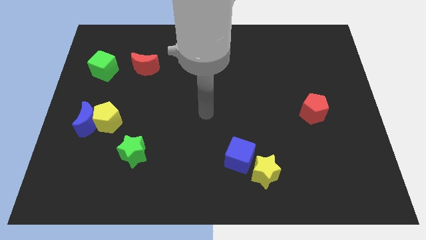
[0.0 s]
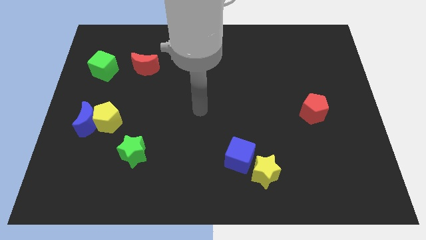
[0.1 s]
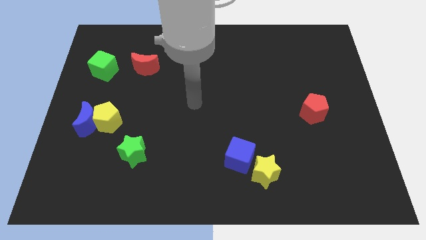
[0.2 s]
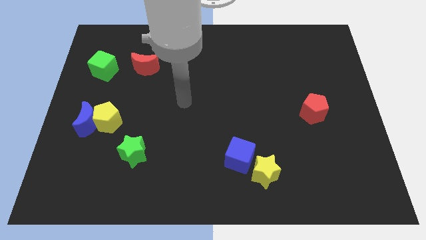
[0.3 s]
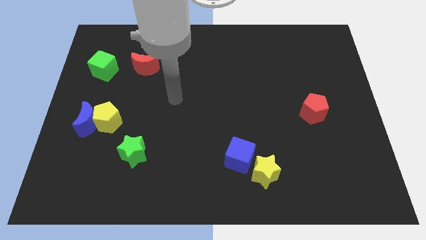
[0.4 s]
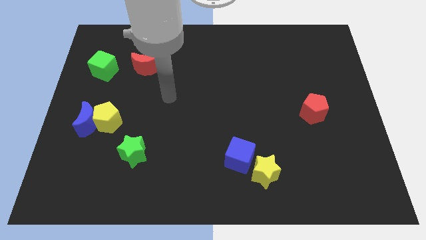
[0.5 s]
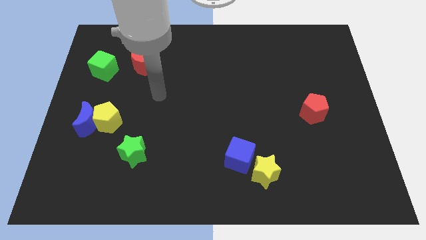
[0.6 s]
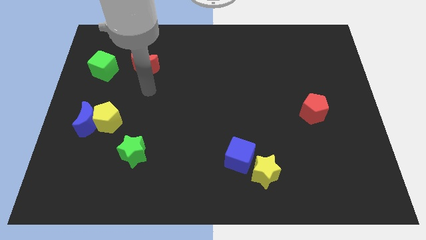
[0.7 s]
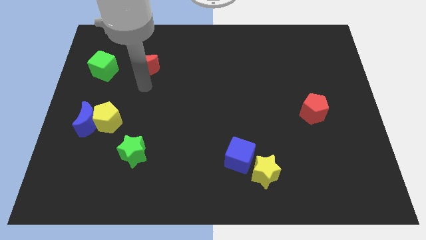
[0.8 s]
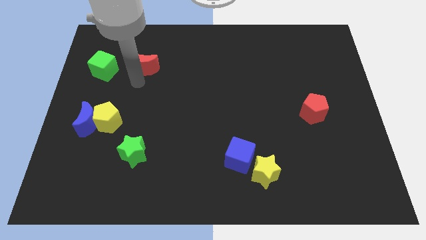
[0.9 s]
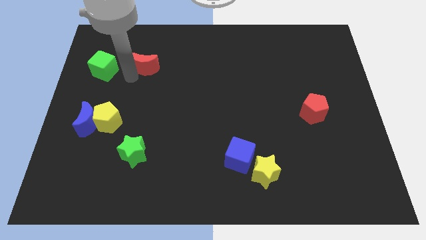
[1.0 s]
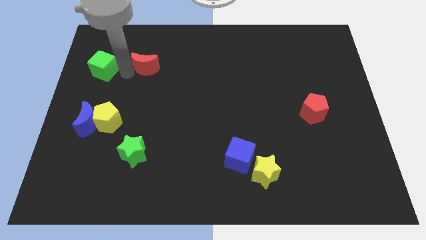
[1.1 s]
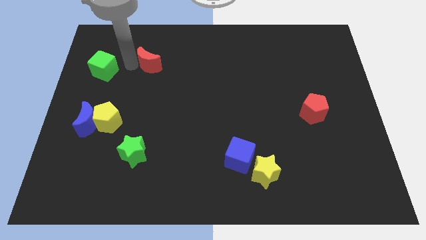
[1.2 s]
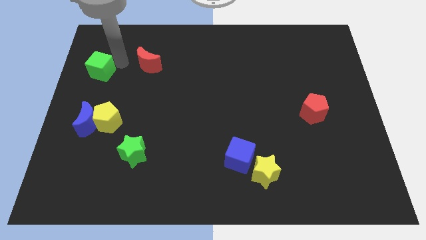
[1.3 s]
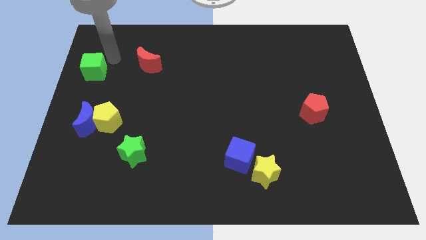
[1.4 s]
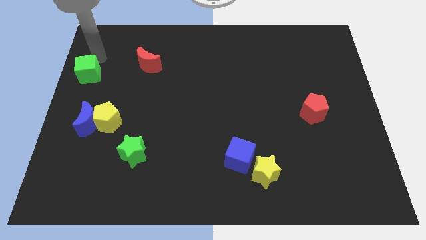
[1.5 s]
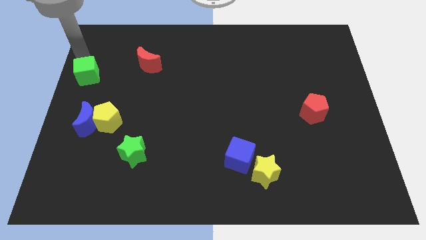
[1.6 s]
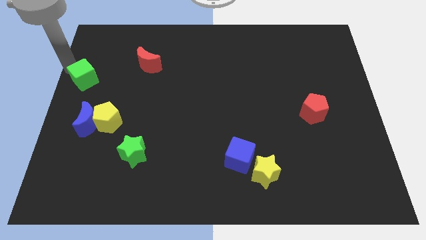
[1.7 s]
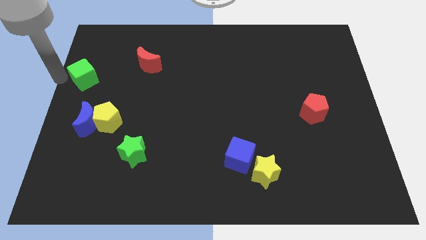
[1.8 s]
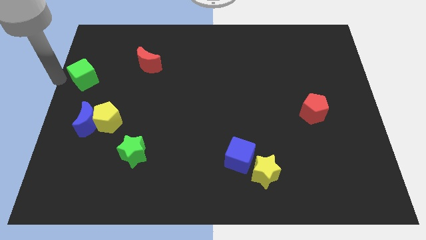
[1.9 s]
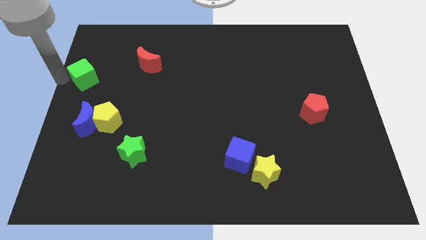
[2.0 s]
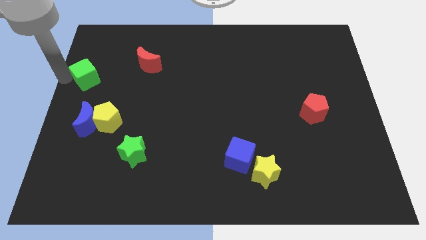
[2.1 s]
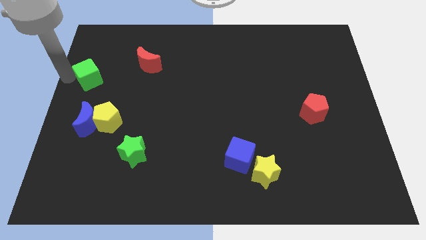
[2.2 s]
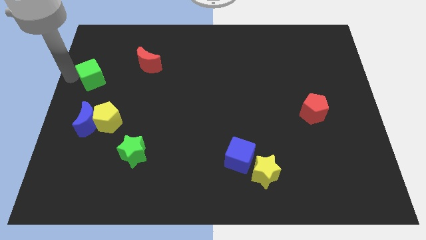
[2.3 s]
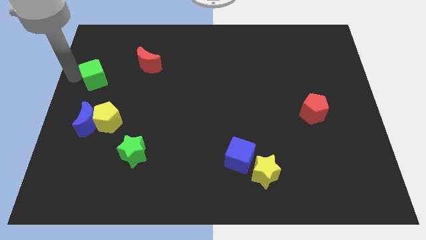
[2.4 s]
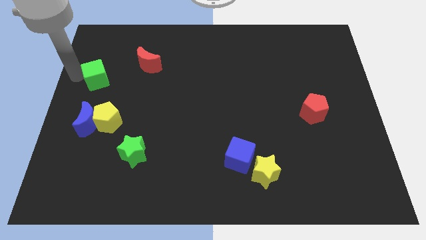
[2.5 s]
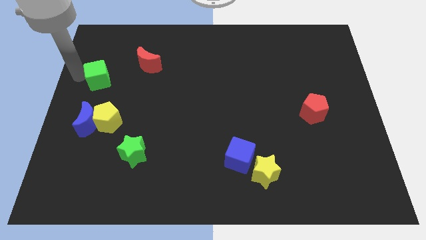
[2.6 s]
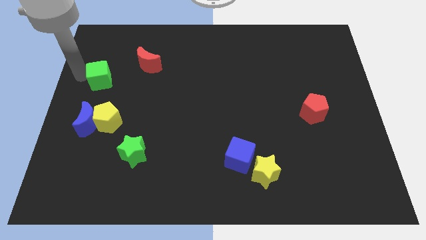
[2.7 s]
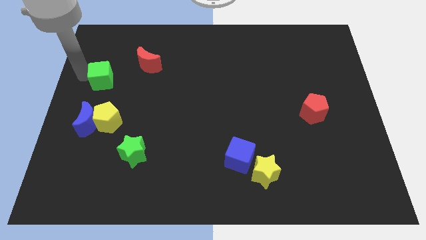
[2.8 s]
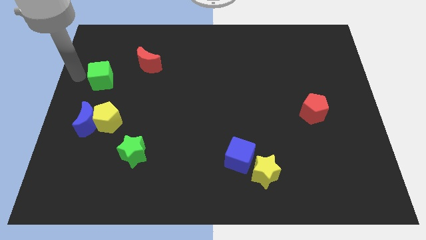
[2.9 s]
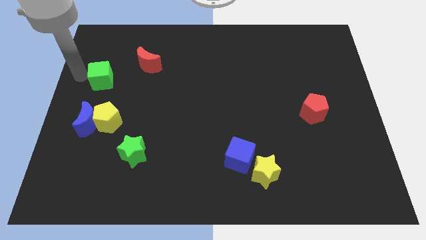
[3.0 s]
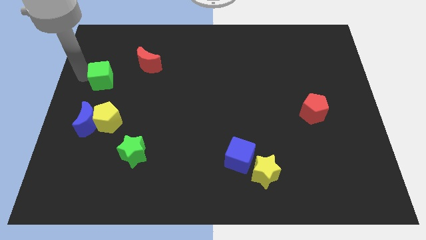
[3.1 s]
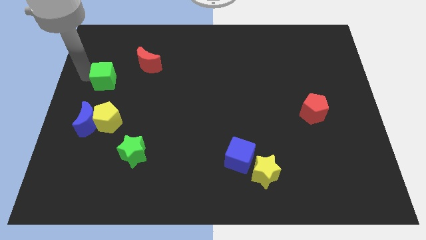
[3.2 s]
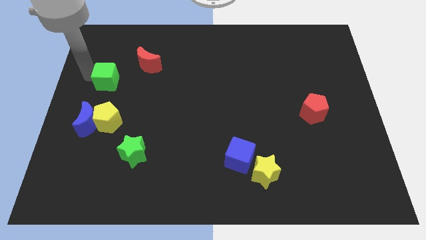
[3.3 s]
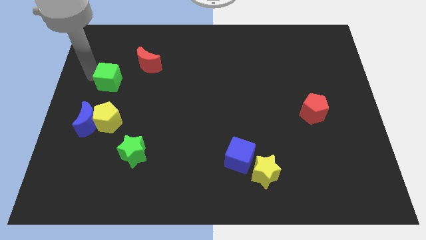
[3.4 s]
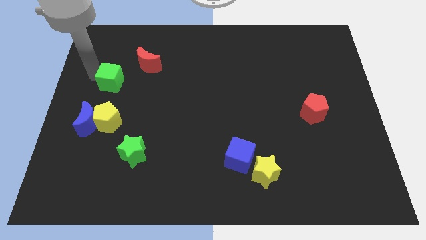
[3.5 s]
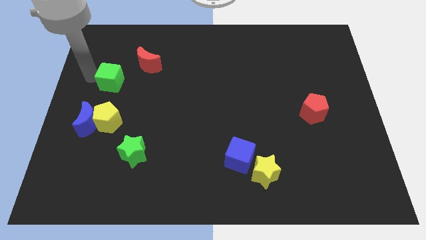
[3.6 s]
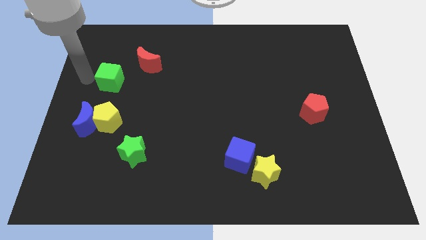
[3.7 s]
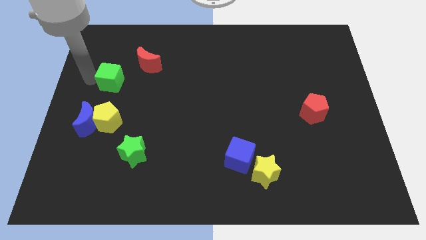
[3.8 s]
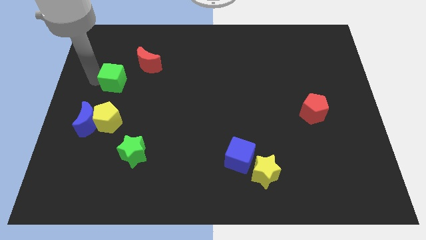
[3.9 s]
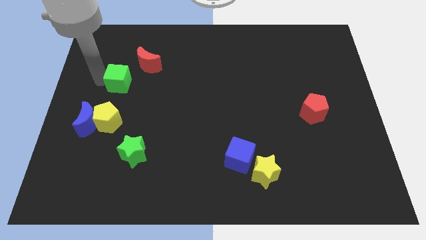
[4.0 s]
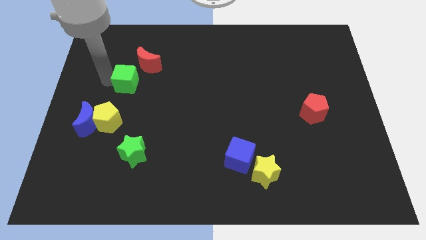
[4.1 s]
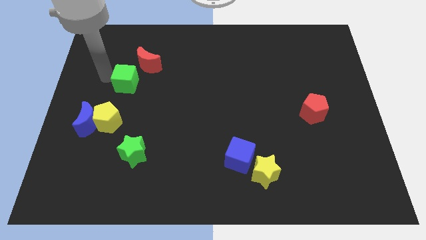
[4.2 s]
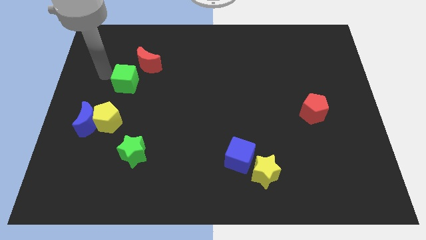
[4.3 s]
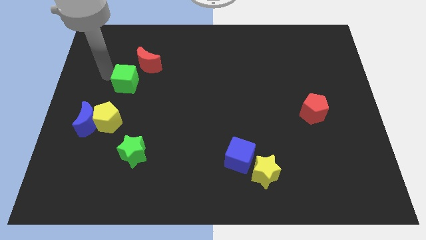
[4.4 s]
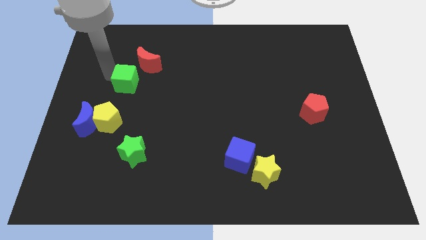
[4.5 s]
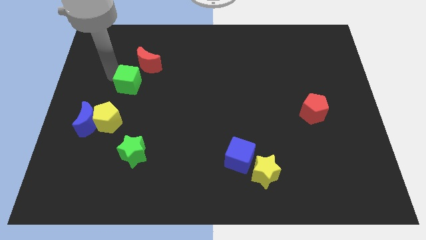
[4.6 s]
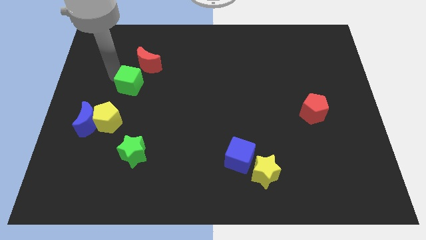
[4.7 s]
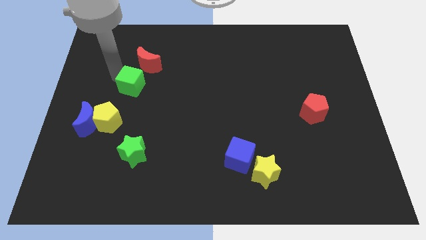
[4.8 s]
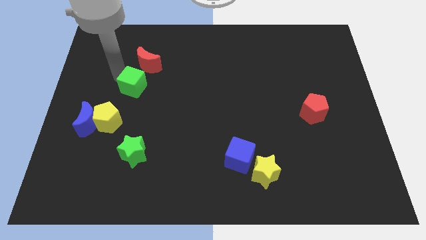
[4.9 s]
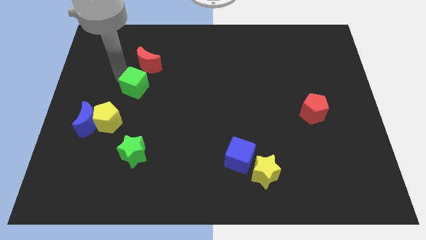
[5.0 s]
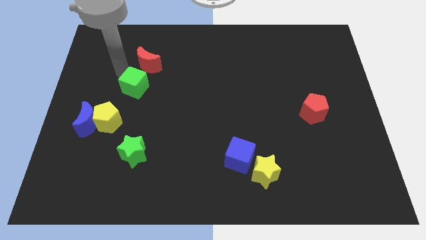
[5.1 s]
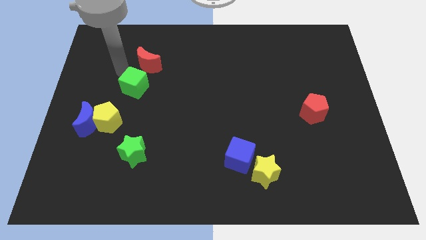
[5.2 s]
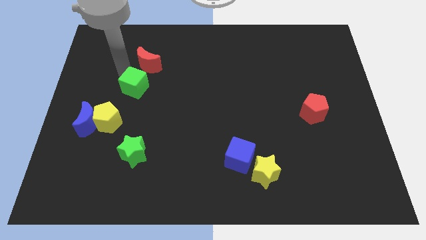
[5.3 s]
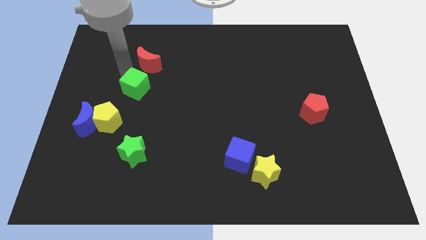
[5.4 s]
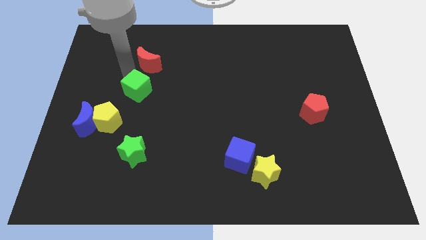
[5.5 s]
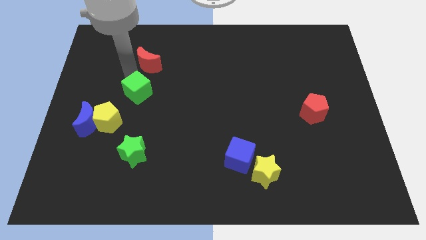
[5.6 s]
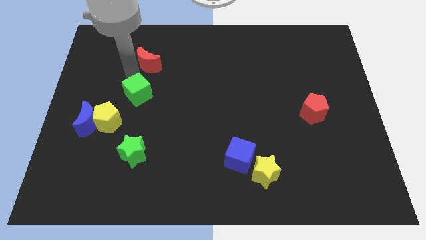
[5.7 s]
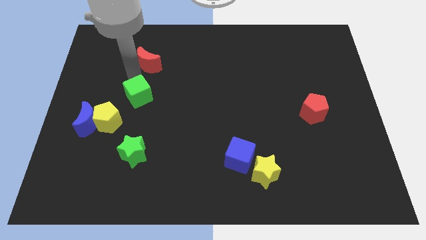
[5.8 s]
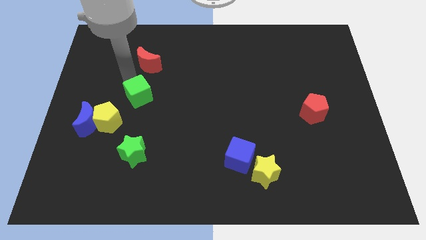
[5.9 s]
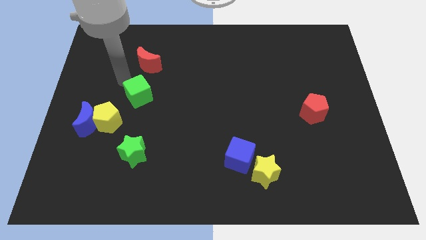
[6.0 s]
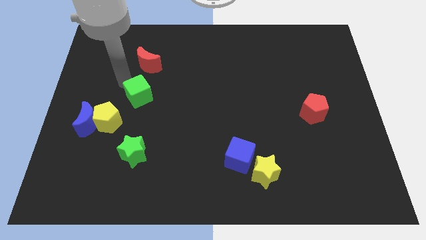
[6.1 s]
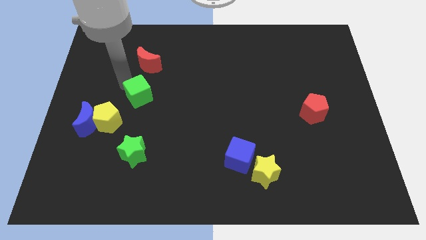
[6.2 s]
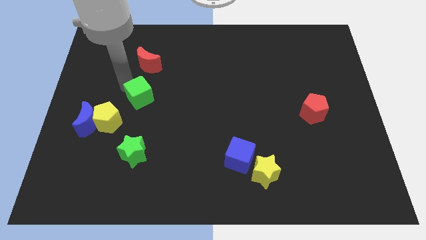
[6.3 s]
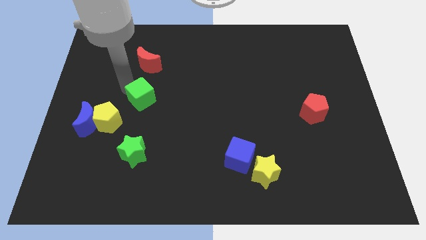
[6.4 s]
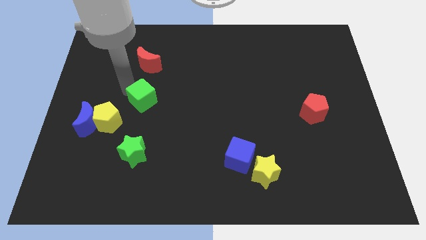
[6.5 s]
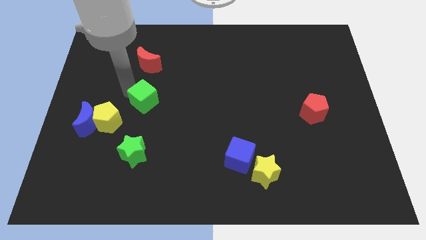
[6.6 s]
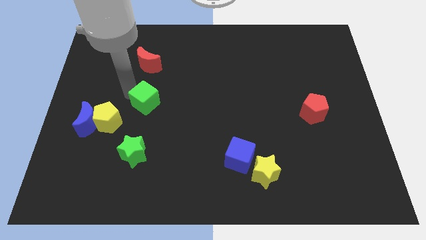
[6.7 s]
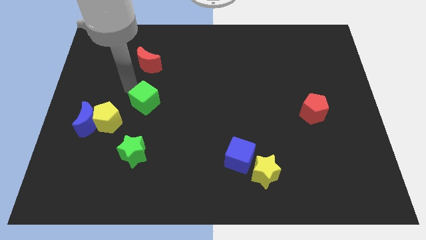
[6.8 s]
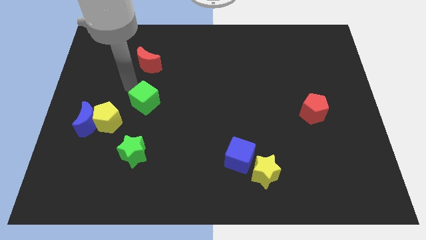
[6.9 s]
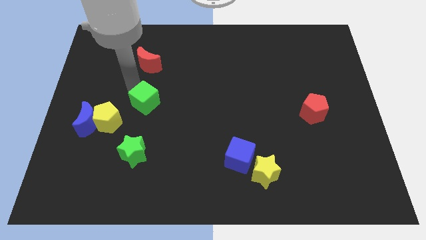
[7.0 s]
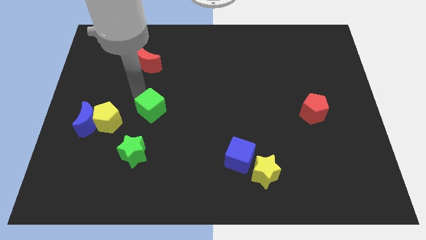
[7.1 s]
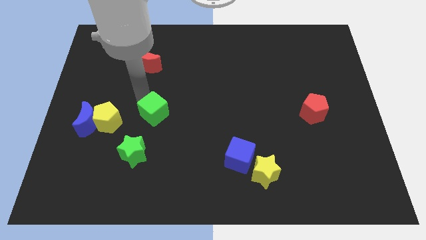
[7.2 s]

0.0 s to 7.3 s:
slide the green cube diagonally downwards and right

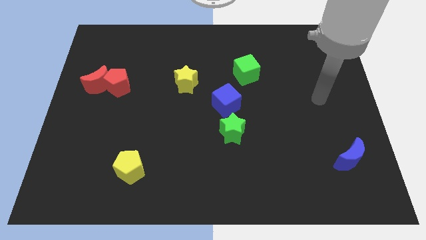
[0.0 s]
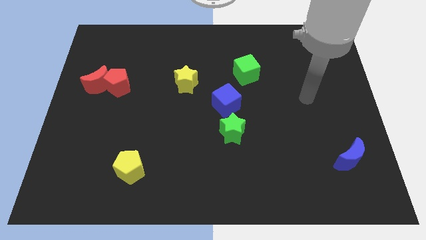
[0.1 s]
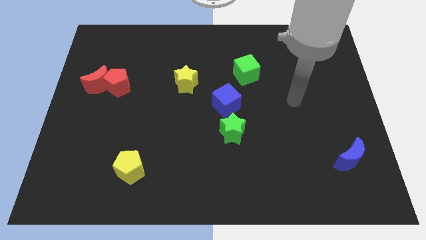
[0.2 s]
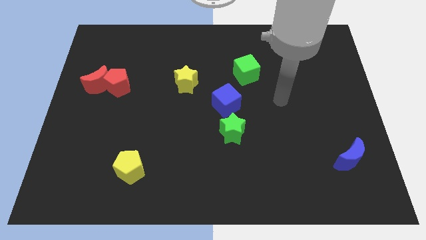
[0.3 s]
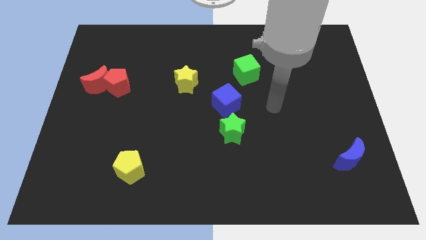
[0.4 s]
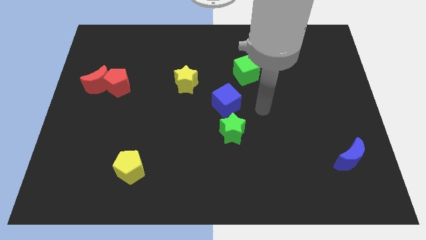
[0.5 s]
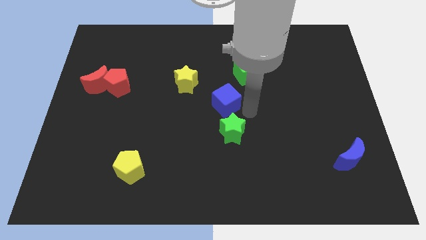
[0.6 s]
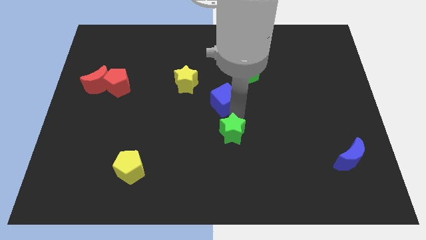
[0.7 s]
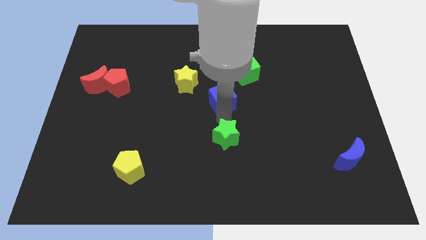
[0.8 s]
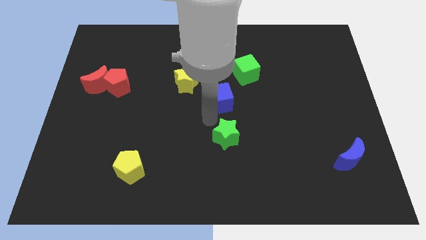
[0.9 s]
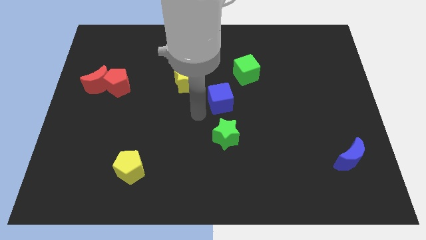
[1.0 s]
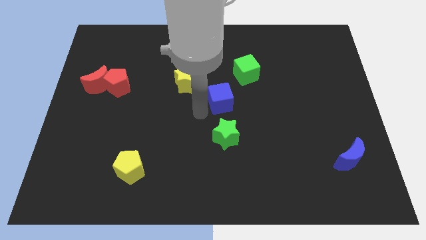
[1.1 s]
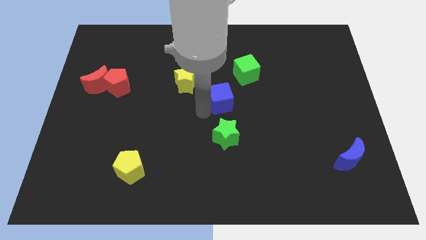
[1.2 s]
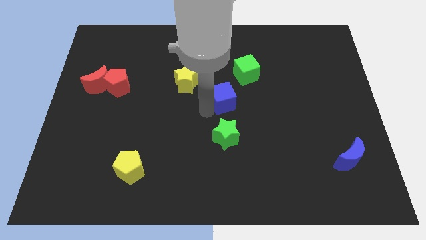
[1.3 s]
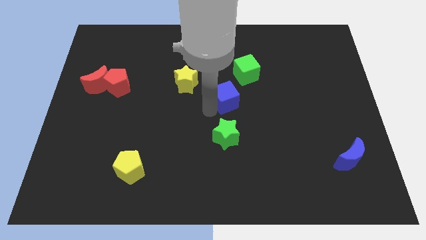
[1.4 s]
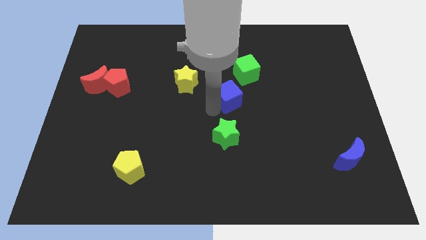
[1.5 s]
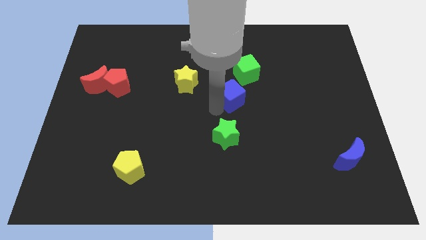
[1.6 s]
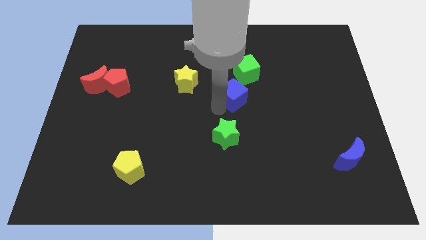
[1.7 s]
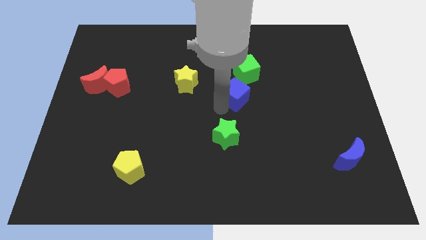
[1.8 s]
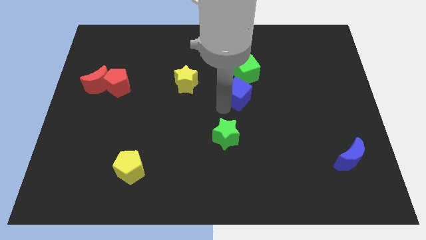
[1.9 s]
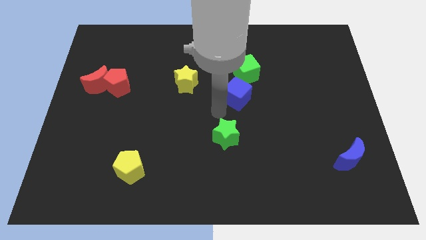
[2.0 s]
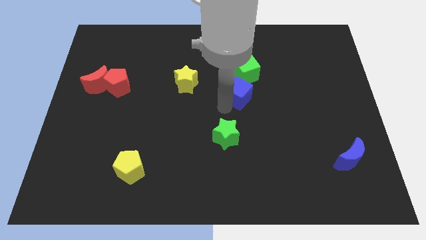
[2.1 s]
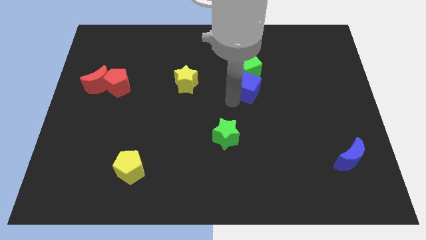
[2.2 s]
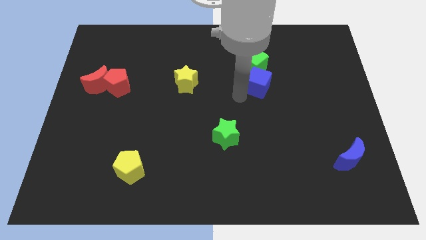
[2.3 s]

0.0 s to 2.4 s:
move the blue cube slightly upwards and right diagonally
